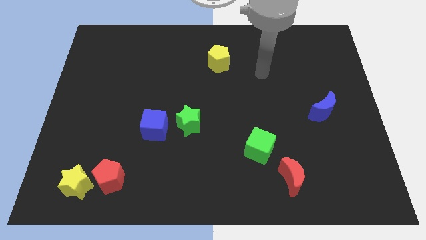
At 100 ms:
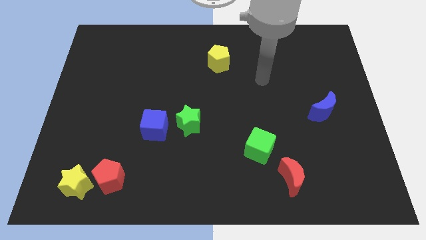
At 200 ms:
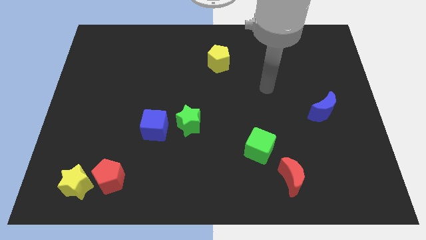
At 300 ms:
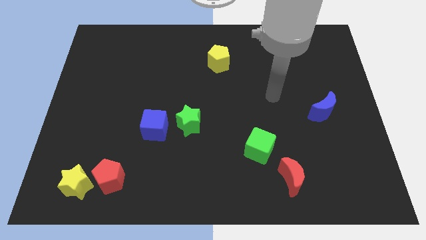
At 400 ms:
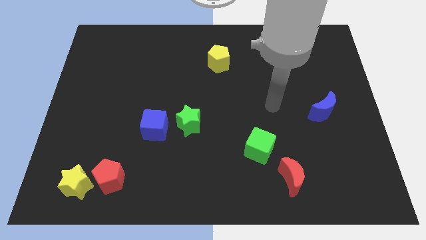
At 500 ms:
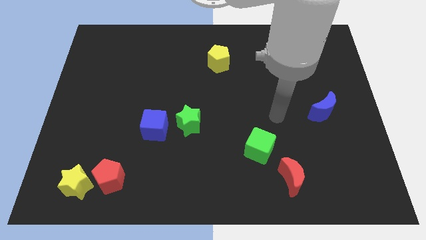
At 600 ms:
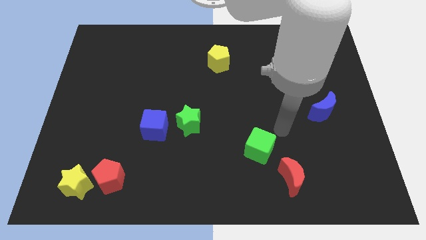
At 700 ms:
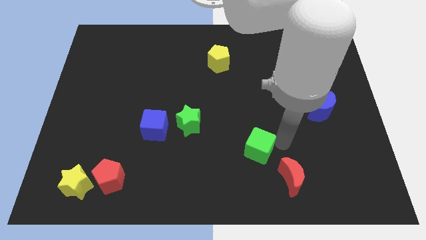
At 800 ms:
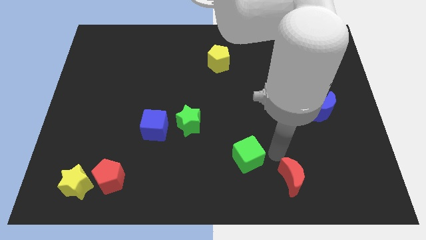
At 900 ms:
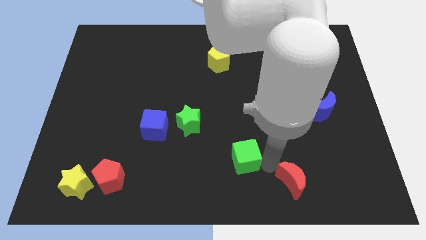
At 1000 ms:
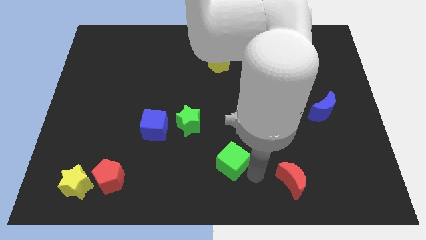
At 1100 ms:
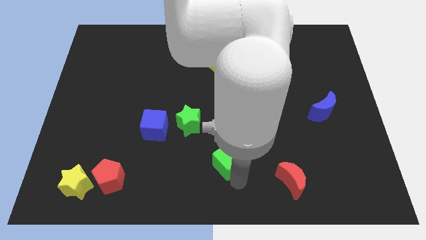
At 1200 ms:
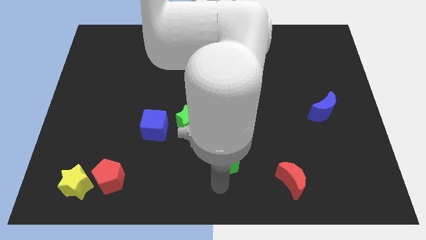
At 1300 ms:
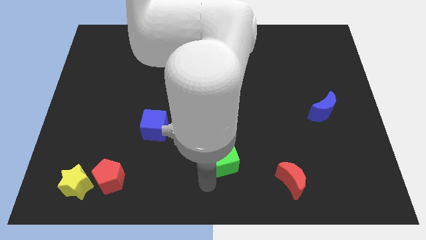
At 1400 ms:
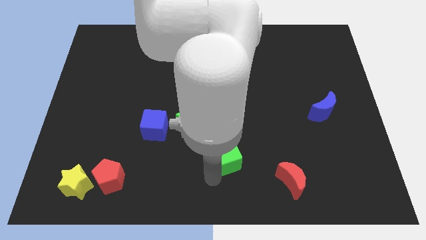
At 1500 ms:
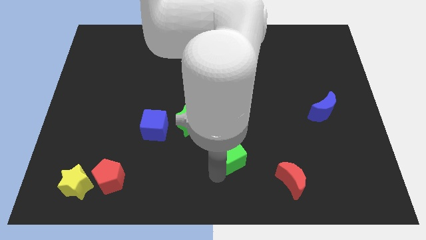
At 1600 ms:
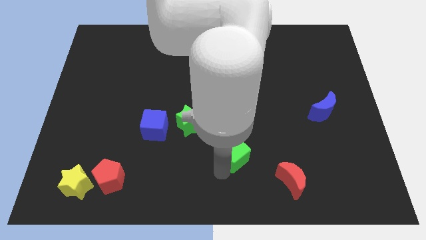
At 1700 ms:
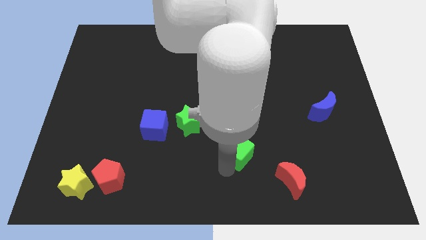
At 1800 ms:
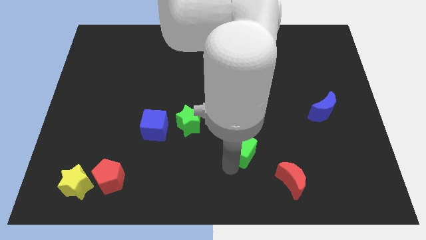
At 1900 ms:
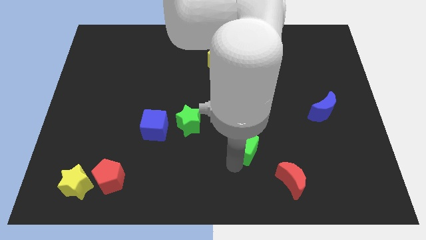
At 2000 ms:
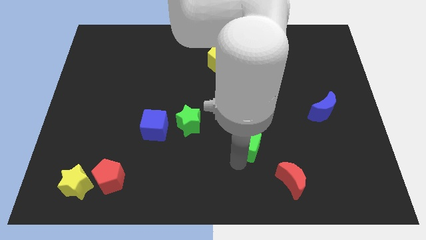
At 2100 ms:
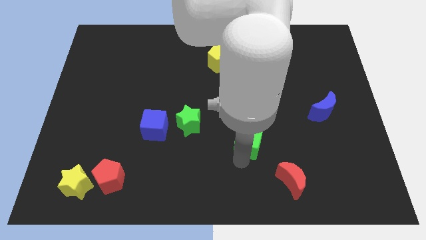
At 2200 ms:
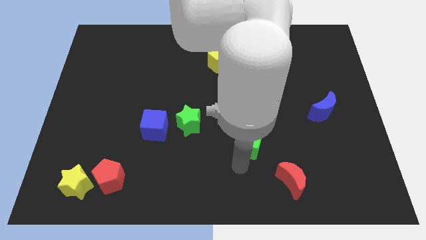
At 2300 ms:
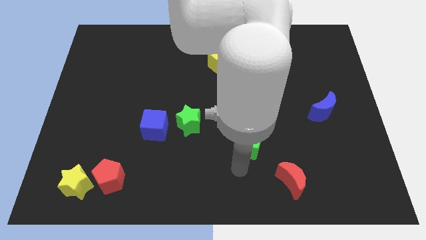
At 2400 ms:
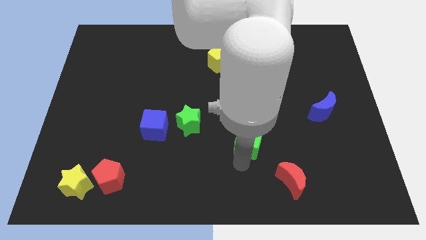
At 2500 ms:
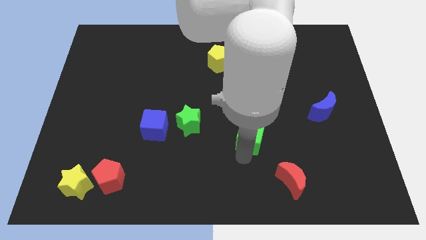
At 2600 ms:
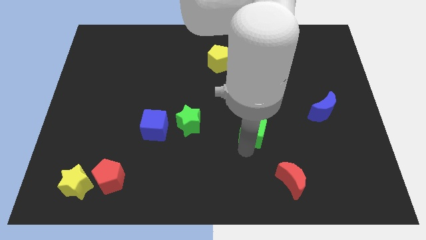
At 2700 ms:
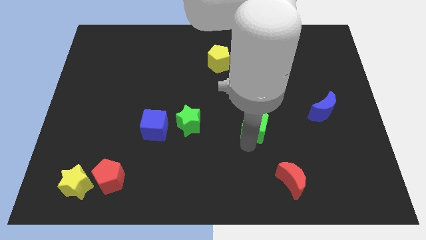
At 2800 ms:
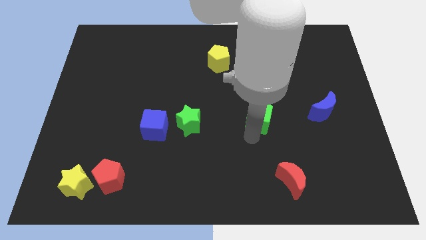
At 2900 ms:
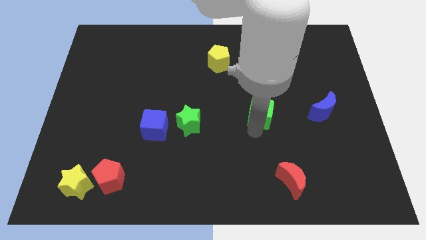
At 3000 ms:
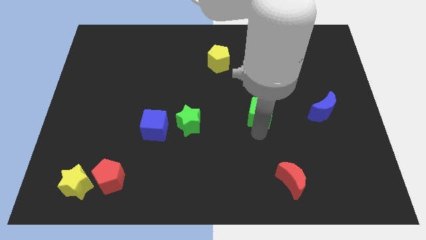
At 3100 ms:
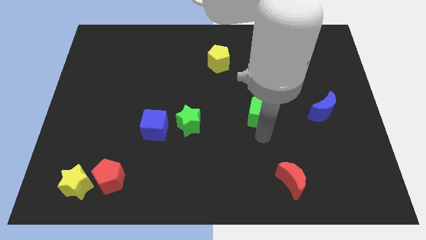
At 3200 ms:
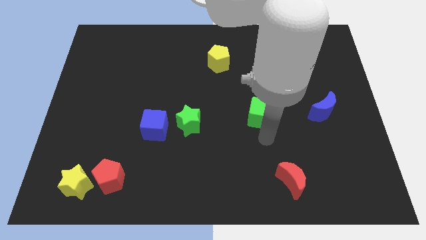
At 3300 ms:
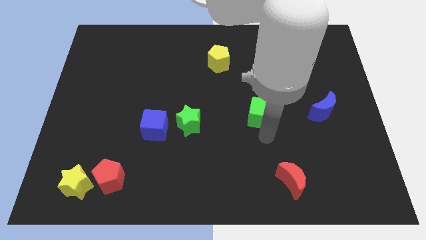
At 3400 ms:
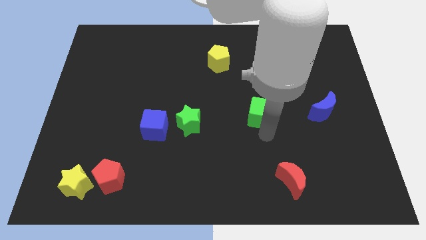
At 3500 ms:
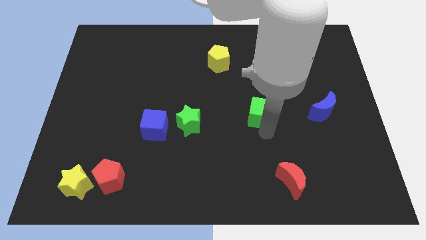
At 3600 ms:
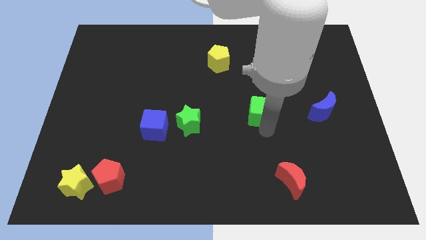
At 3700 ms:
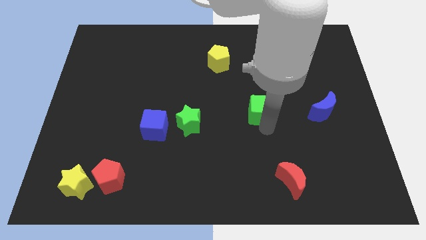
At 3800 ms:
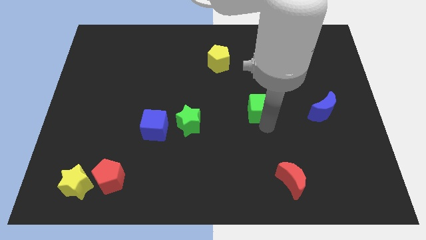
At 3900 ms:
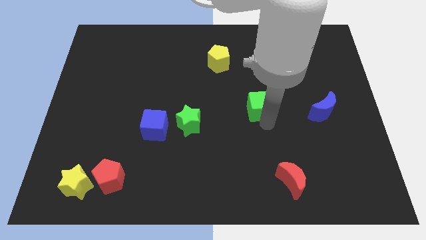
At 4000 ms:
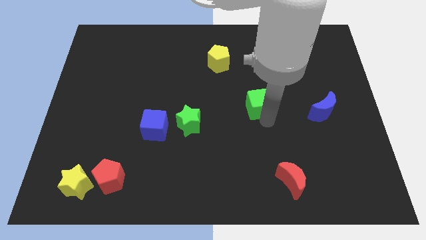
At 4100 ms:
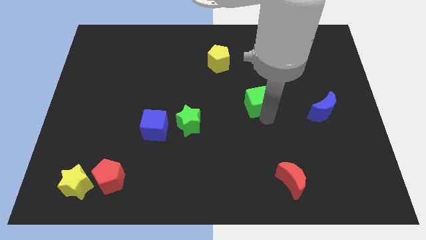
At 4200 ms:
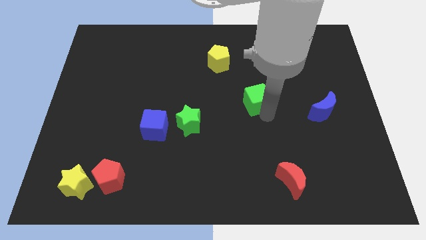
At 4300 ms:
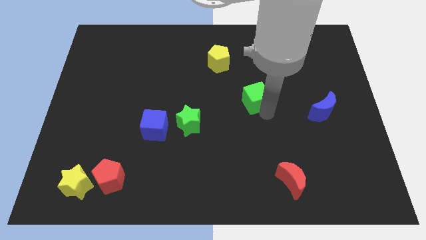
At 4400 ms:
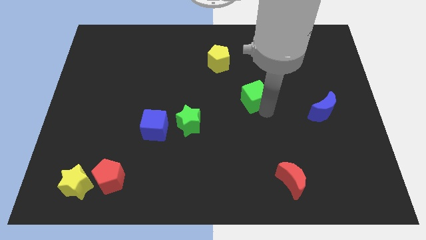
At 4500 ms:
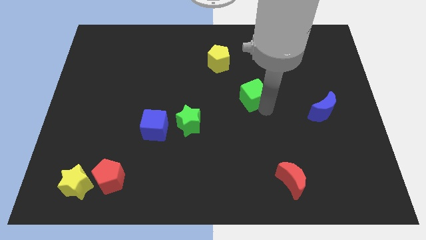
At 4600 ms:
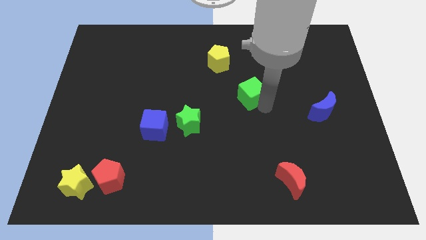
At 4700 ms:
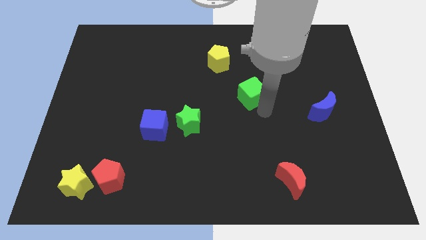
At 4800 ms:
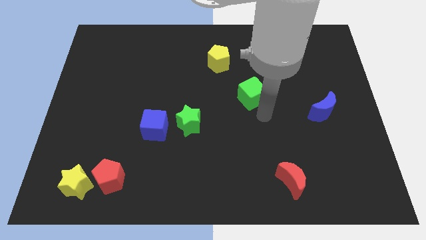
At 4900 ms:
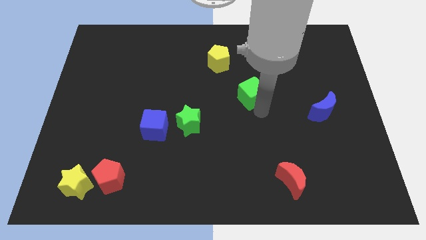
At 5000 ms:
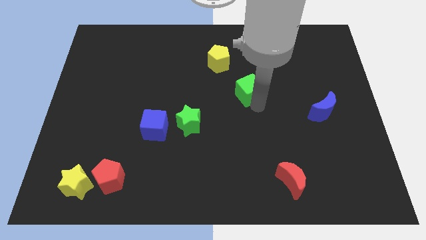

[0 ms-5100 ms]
slide the green cube to the bottom right of the yellow pentagon

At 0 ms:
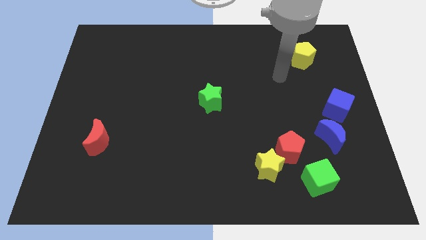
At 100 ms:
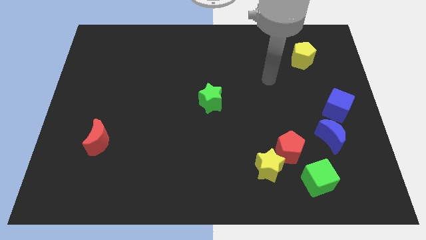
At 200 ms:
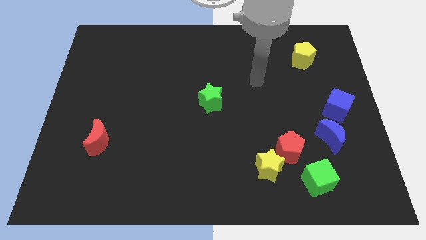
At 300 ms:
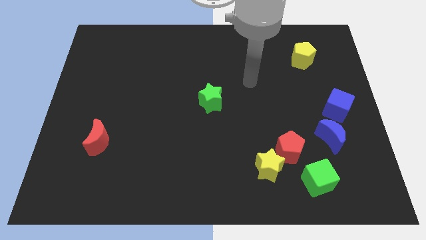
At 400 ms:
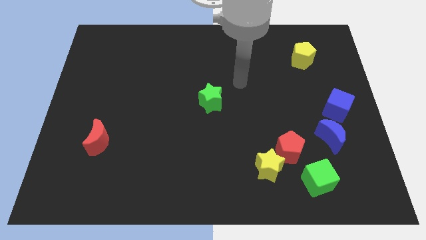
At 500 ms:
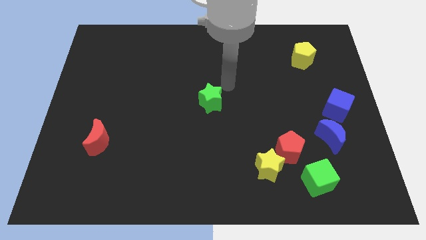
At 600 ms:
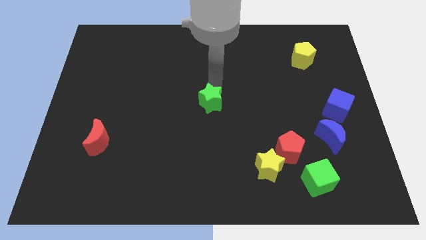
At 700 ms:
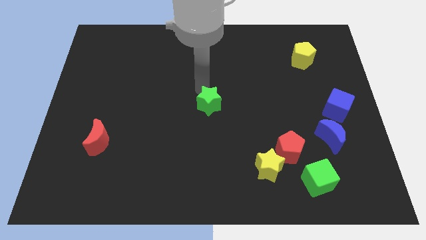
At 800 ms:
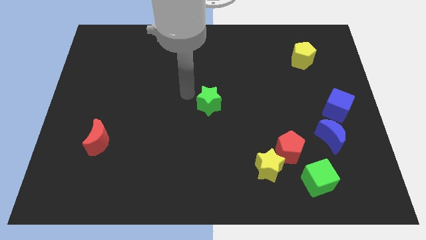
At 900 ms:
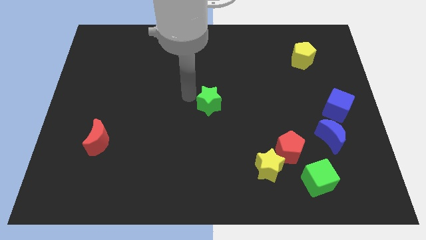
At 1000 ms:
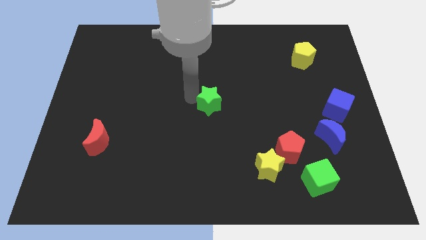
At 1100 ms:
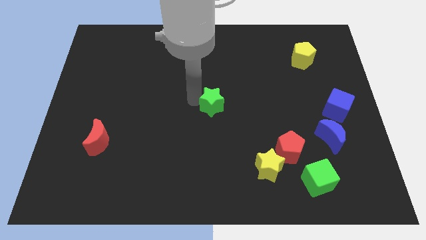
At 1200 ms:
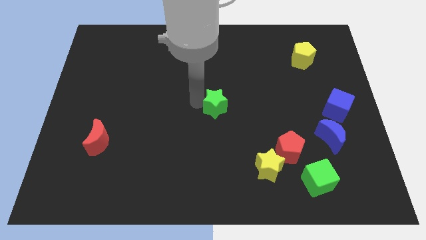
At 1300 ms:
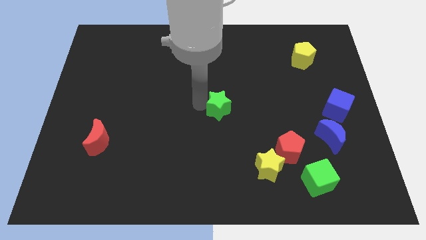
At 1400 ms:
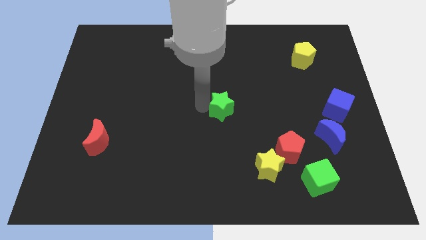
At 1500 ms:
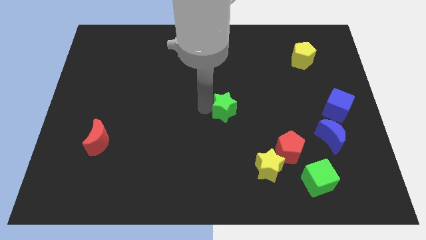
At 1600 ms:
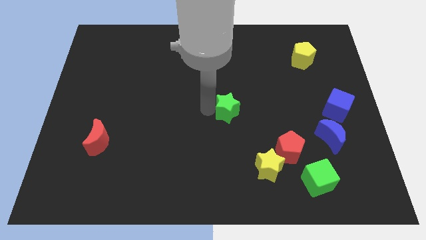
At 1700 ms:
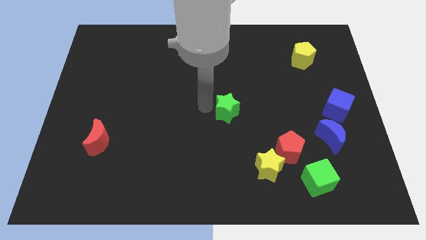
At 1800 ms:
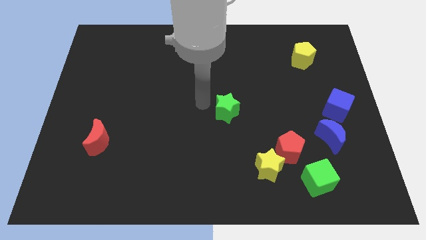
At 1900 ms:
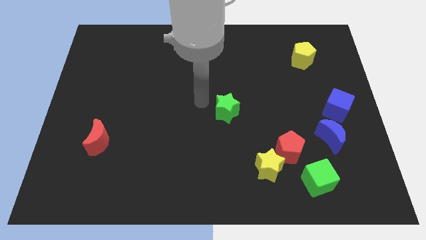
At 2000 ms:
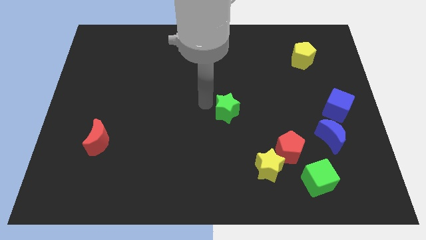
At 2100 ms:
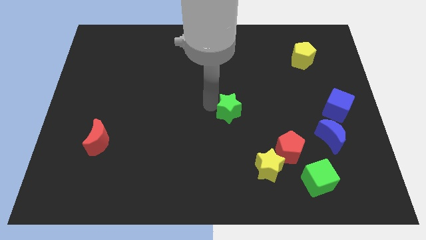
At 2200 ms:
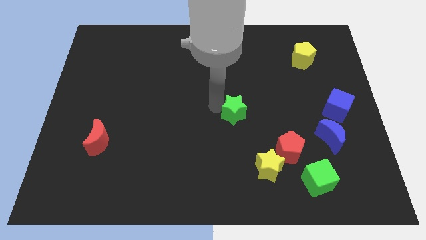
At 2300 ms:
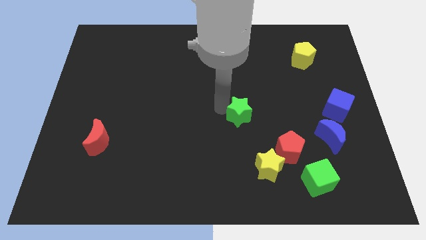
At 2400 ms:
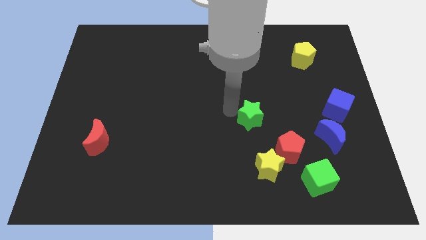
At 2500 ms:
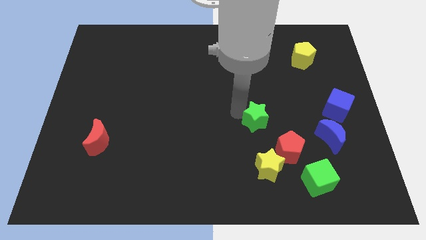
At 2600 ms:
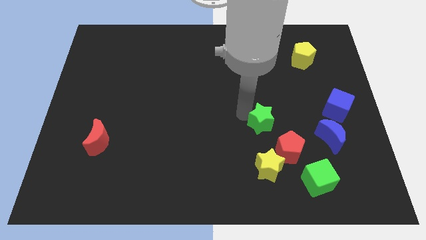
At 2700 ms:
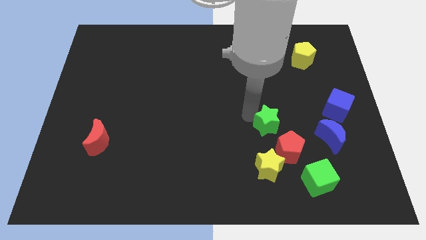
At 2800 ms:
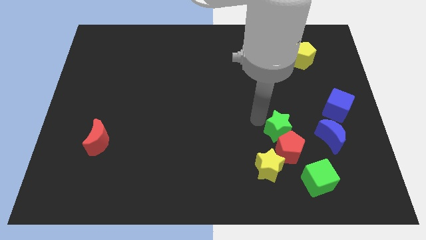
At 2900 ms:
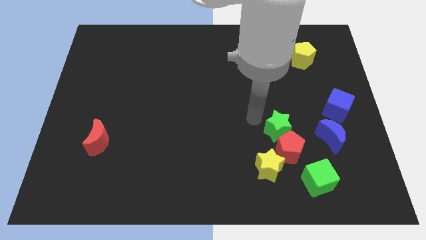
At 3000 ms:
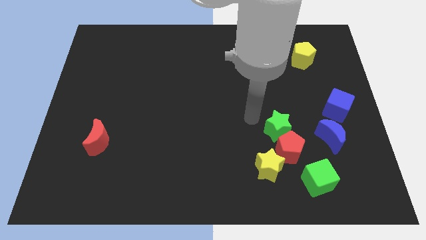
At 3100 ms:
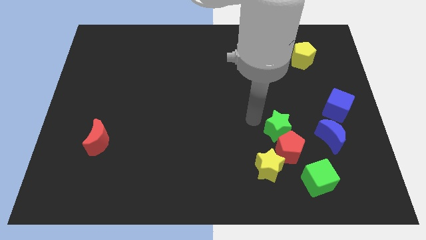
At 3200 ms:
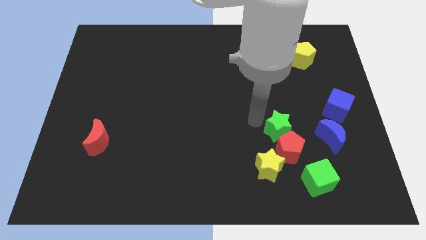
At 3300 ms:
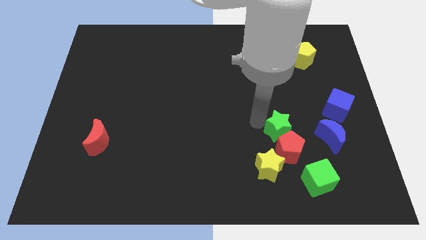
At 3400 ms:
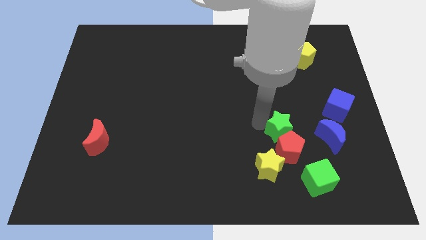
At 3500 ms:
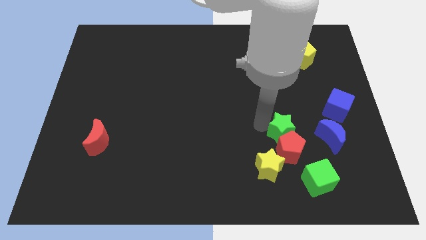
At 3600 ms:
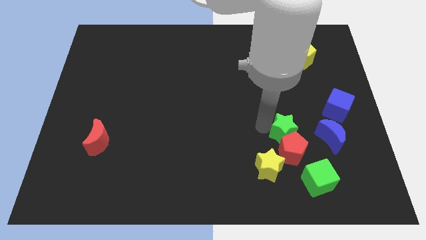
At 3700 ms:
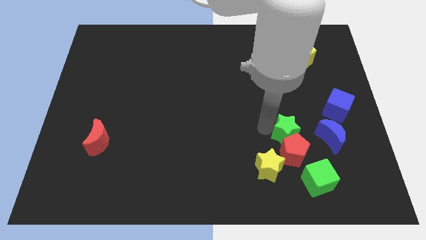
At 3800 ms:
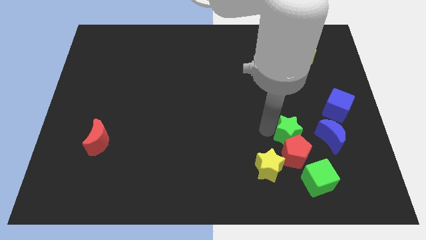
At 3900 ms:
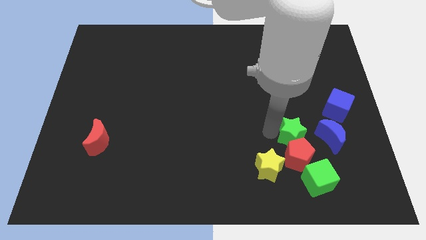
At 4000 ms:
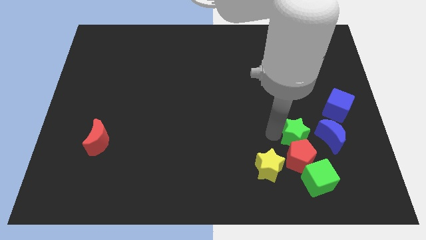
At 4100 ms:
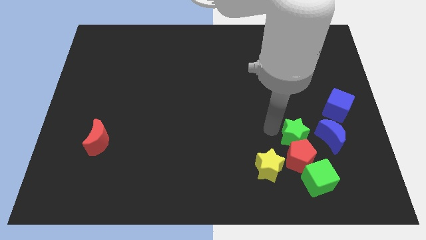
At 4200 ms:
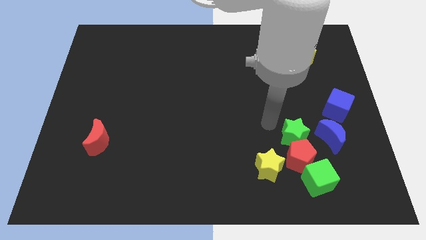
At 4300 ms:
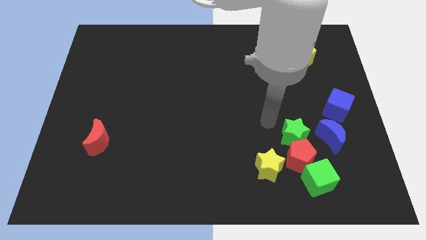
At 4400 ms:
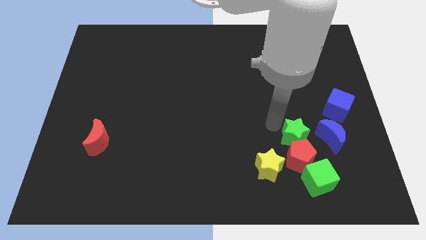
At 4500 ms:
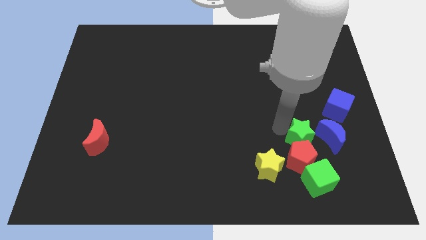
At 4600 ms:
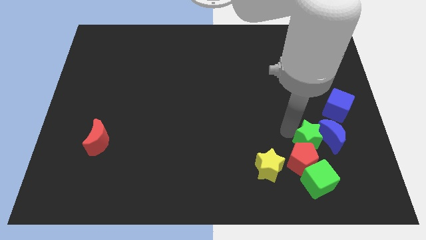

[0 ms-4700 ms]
move the green star diagonally down and to the left of the blue moon
